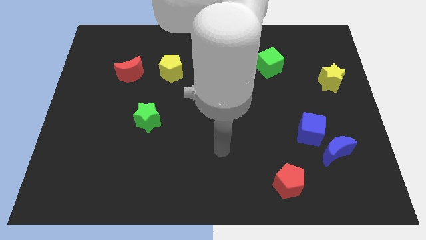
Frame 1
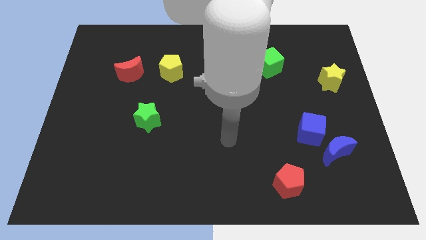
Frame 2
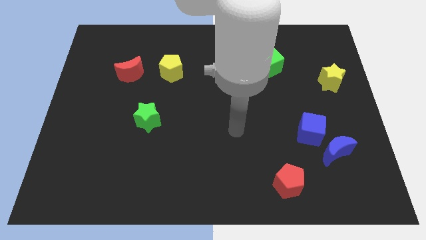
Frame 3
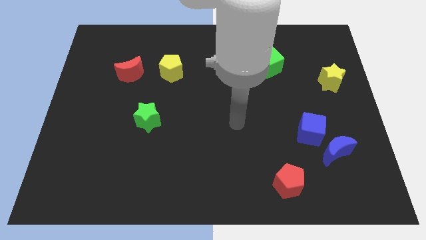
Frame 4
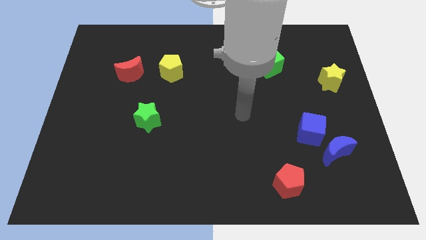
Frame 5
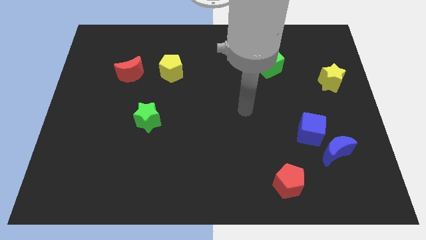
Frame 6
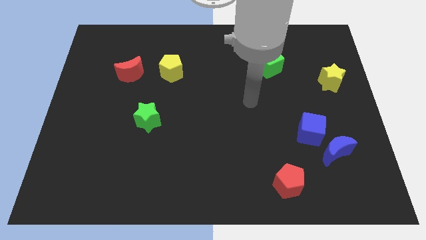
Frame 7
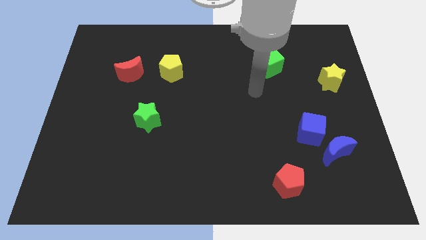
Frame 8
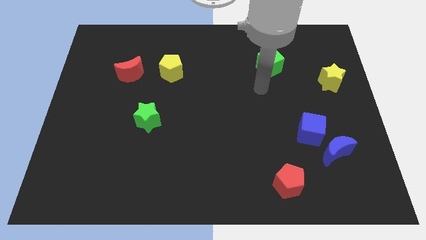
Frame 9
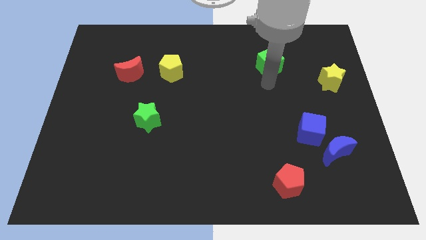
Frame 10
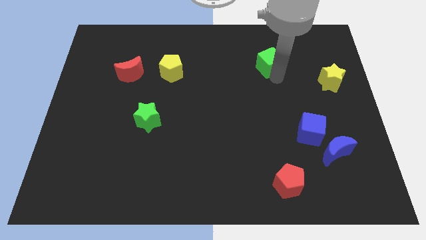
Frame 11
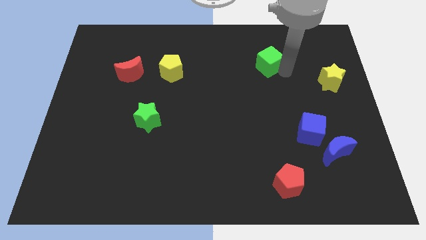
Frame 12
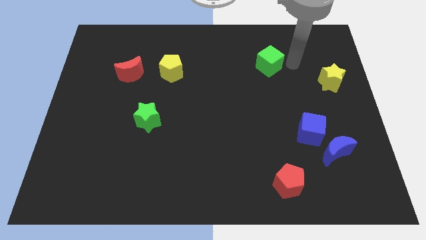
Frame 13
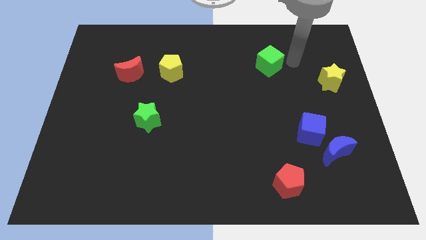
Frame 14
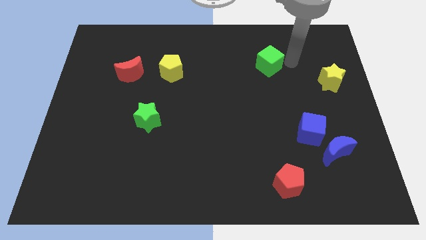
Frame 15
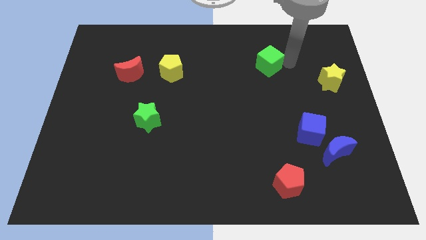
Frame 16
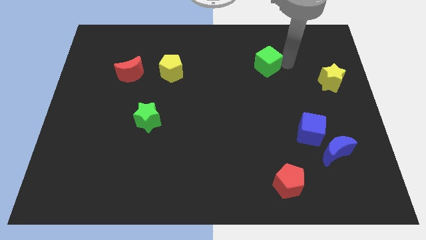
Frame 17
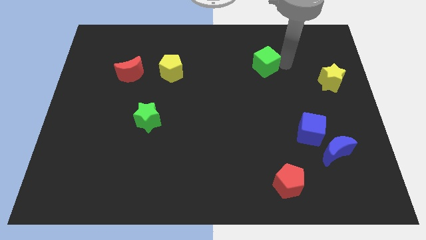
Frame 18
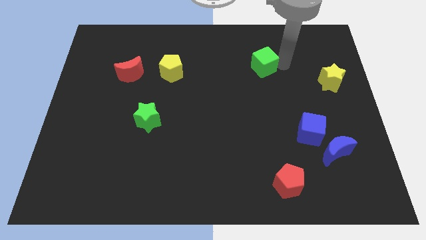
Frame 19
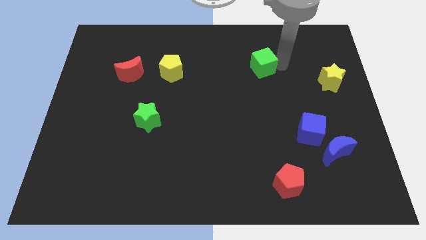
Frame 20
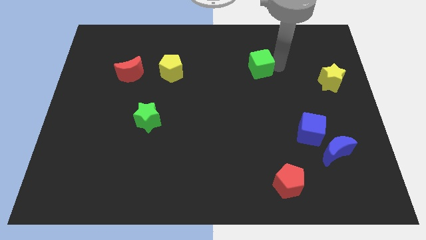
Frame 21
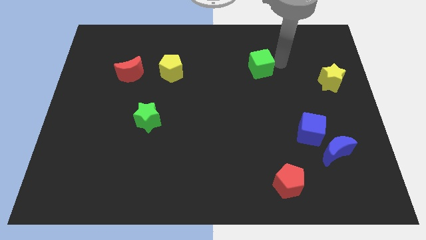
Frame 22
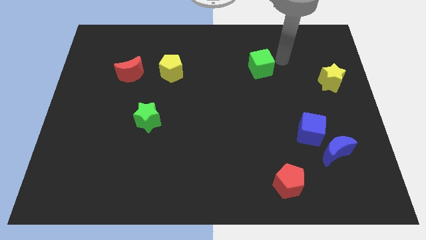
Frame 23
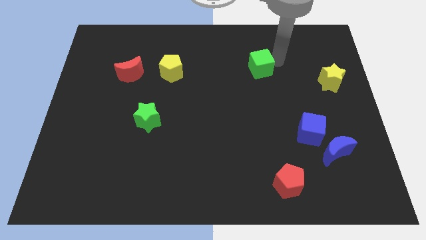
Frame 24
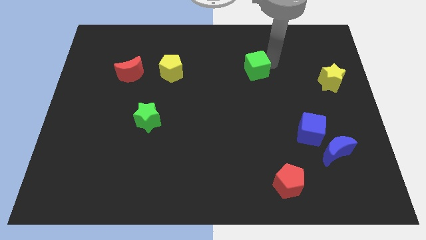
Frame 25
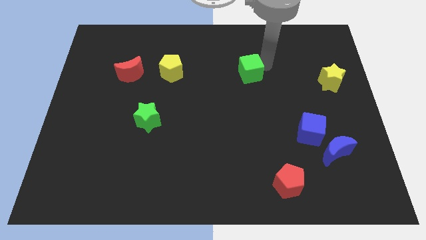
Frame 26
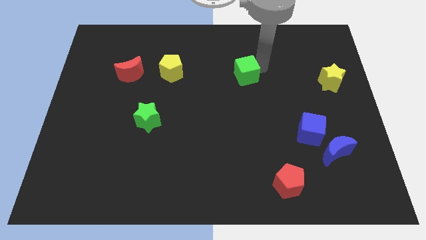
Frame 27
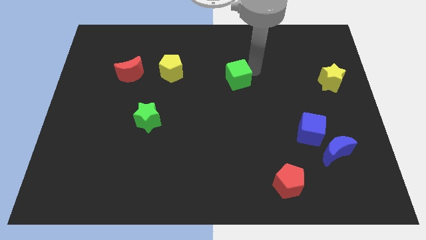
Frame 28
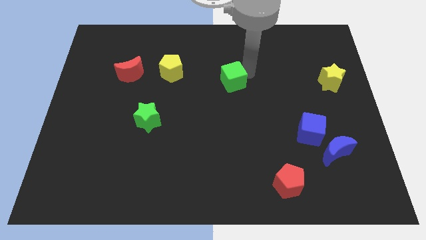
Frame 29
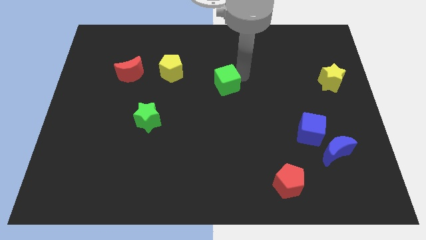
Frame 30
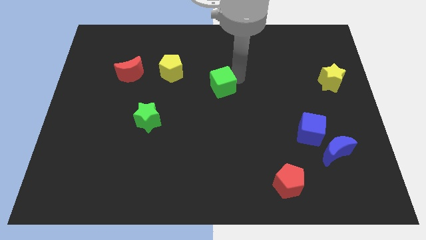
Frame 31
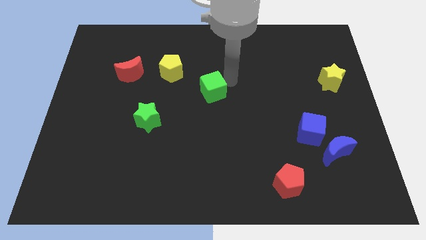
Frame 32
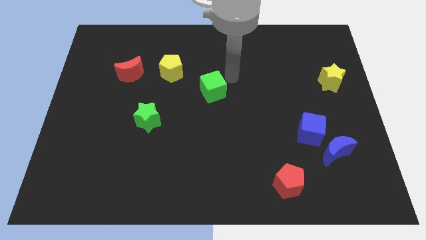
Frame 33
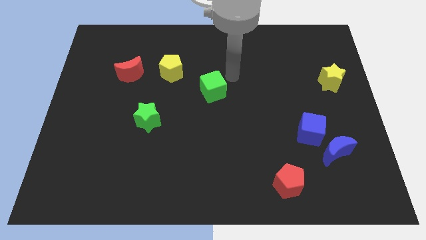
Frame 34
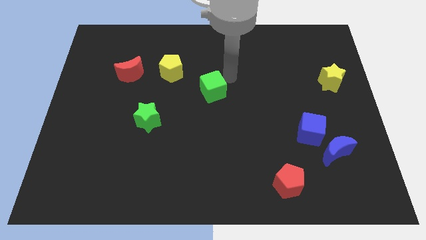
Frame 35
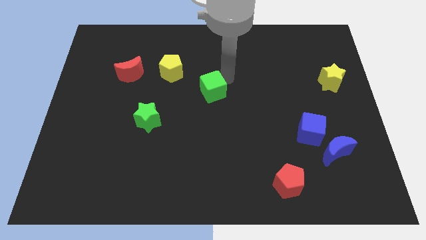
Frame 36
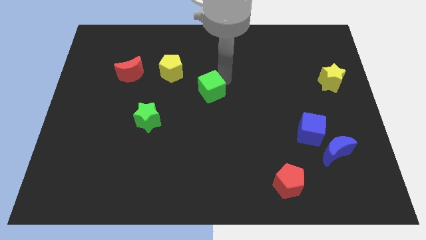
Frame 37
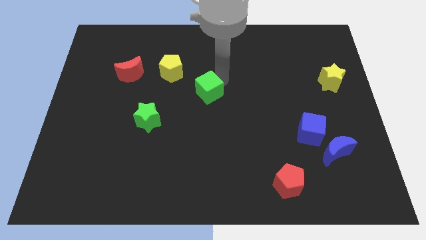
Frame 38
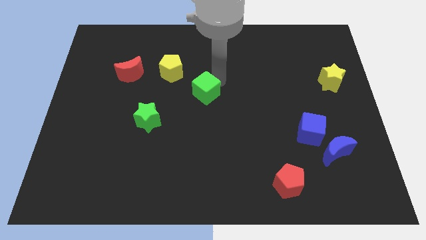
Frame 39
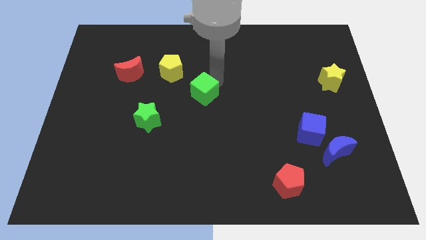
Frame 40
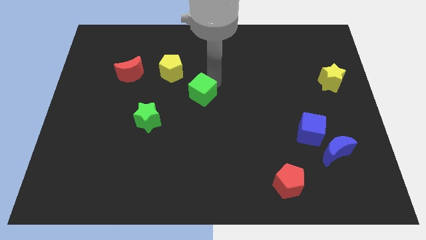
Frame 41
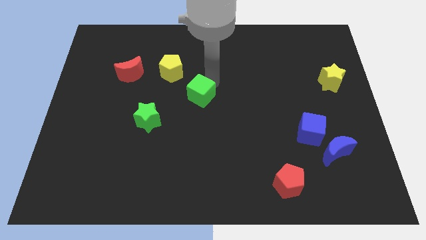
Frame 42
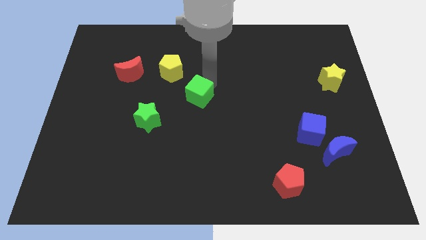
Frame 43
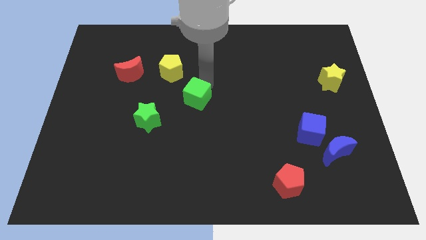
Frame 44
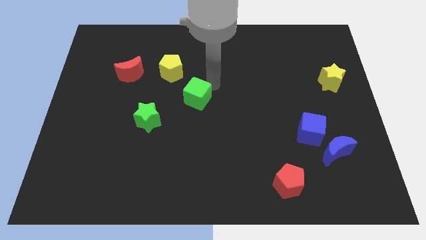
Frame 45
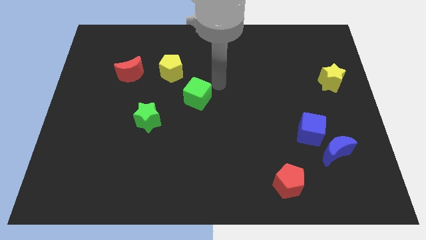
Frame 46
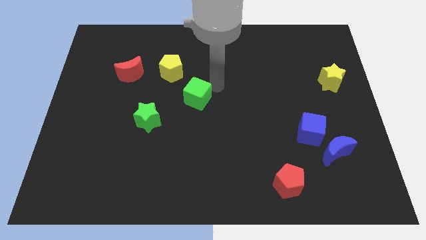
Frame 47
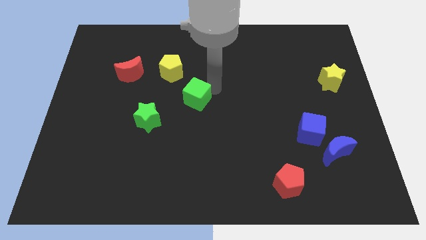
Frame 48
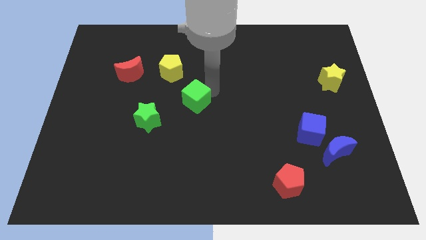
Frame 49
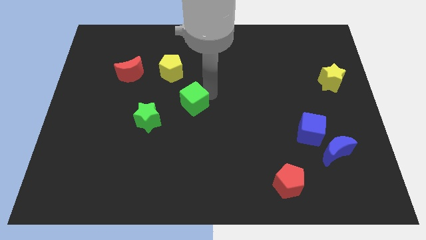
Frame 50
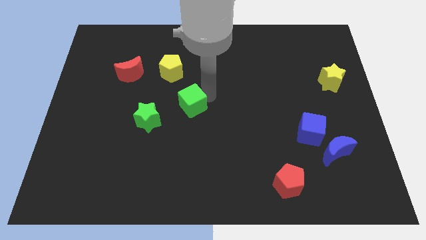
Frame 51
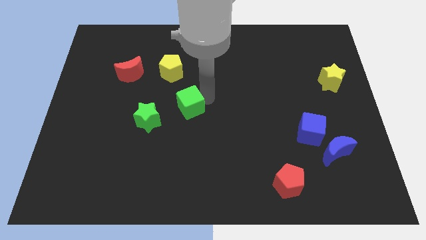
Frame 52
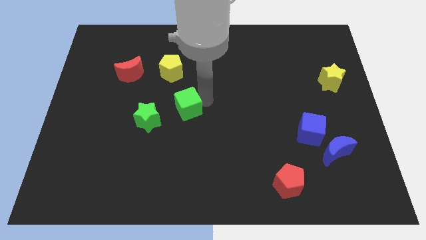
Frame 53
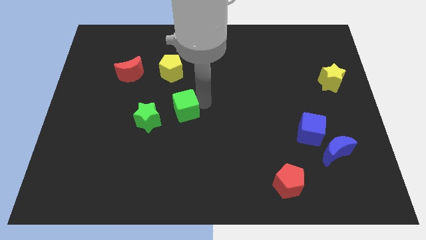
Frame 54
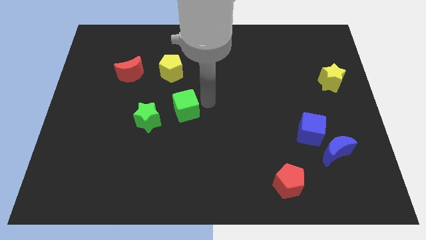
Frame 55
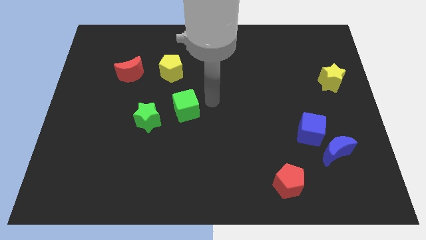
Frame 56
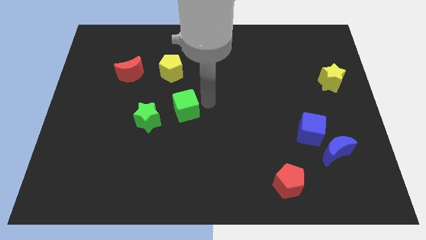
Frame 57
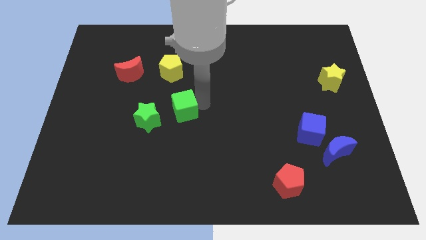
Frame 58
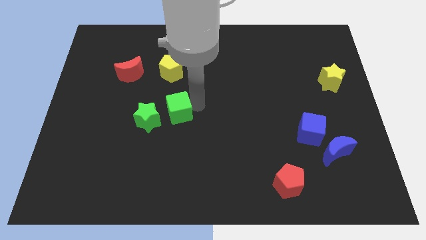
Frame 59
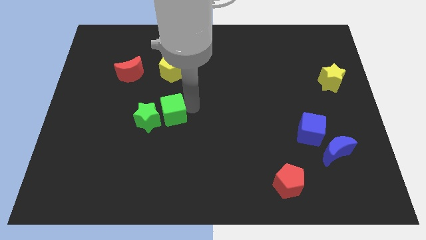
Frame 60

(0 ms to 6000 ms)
put the green cube towards the green star
